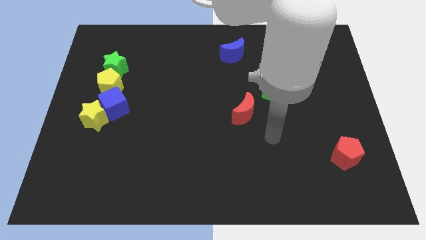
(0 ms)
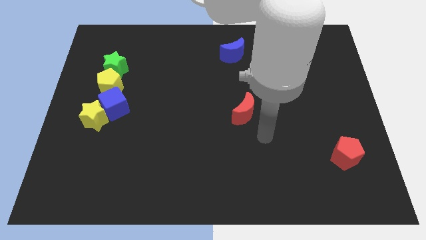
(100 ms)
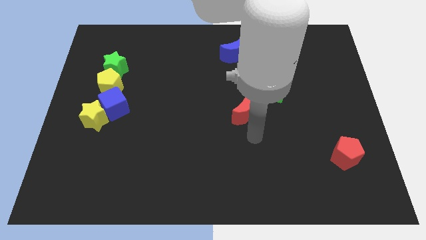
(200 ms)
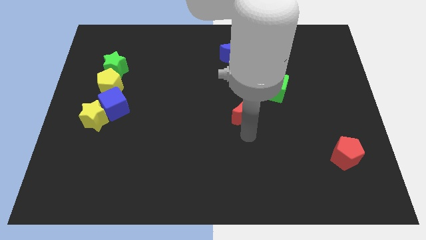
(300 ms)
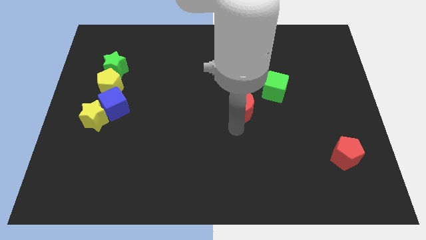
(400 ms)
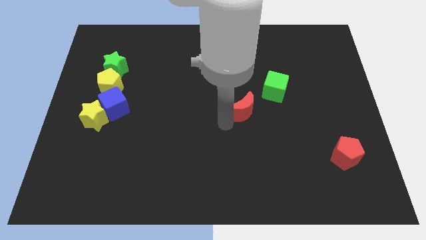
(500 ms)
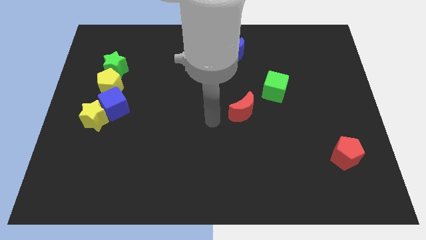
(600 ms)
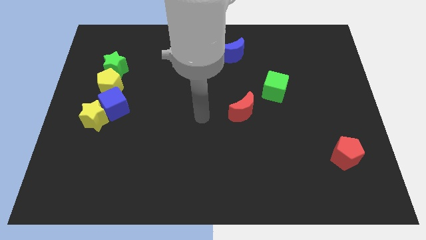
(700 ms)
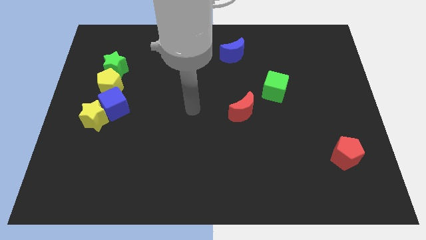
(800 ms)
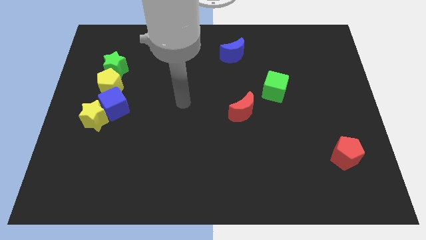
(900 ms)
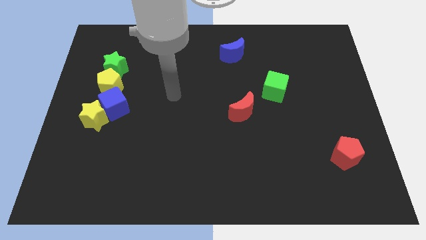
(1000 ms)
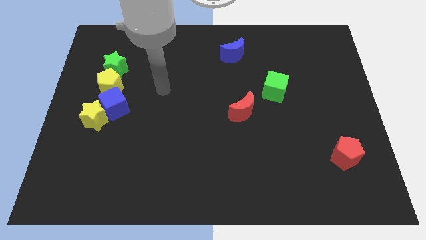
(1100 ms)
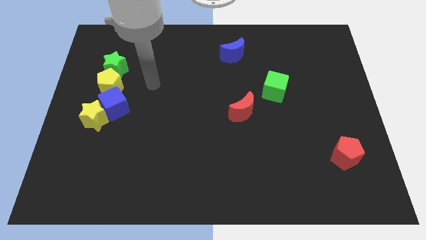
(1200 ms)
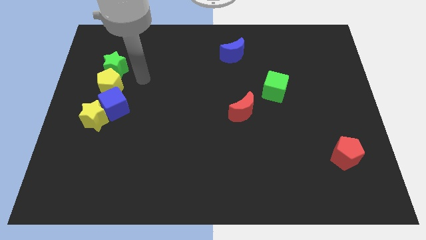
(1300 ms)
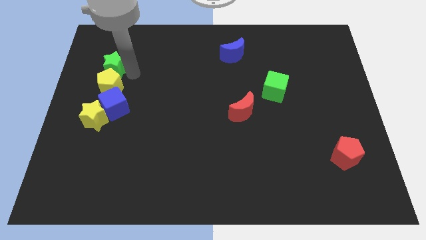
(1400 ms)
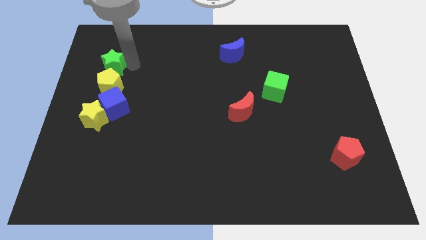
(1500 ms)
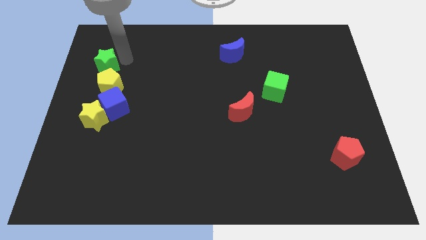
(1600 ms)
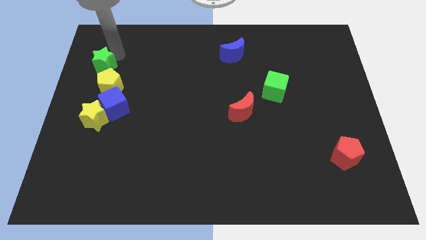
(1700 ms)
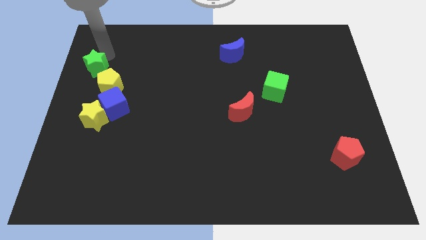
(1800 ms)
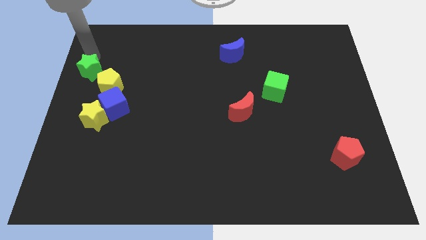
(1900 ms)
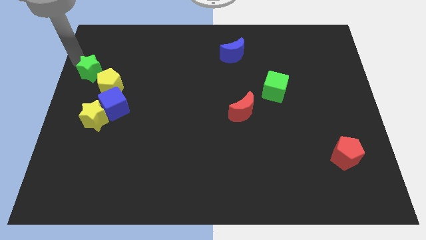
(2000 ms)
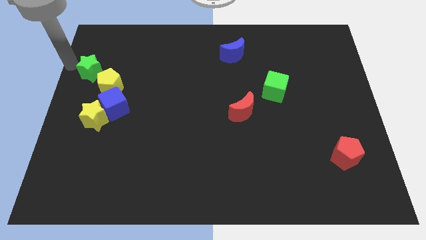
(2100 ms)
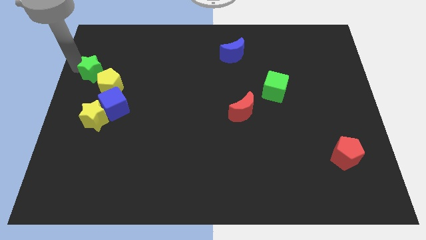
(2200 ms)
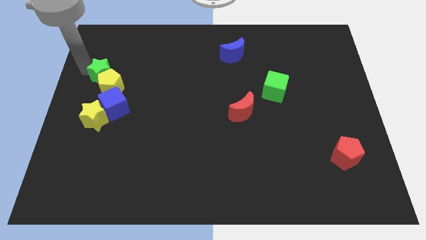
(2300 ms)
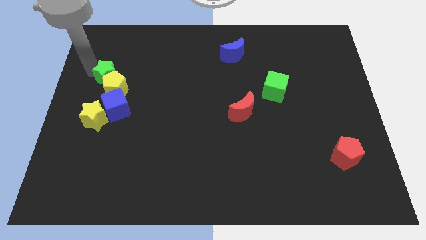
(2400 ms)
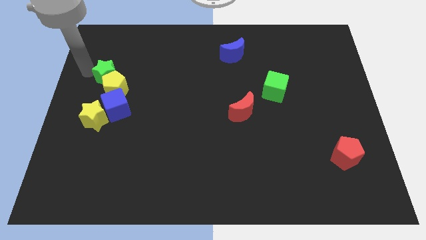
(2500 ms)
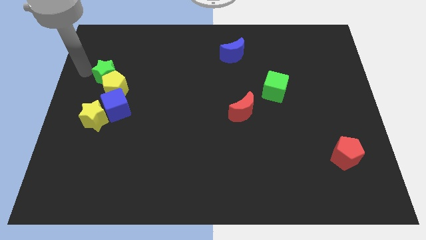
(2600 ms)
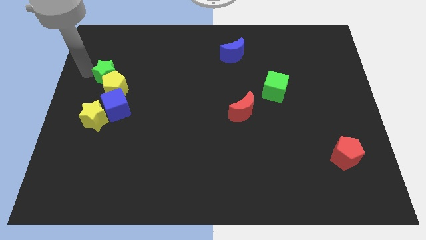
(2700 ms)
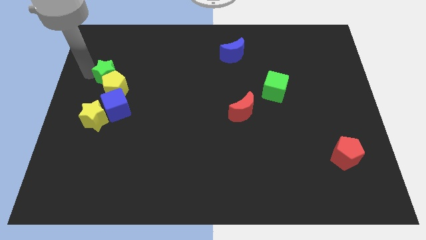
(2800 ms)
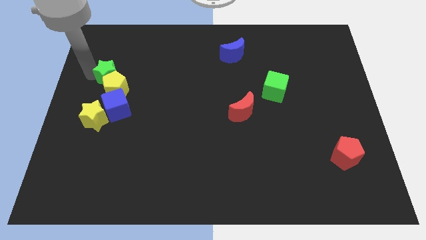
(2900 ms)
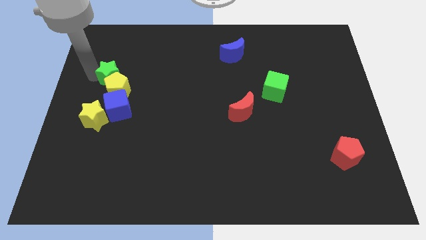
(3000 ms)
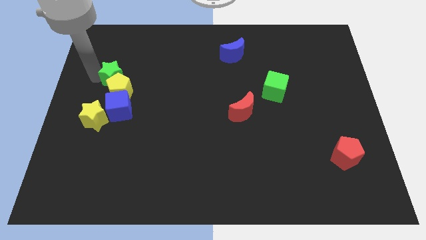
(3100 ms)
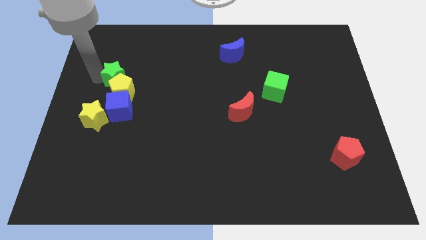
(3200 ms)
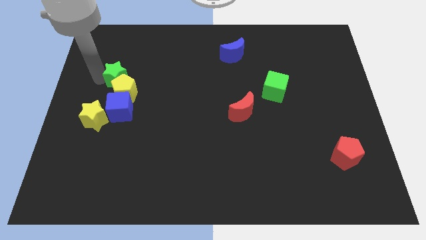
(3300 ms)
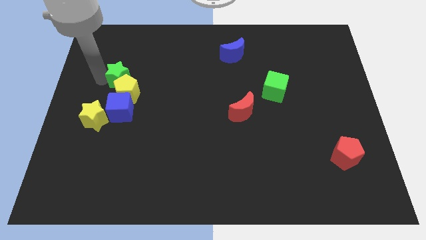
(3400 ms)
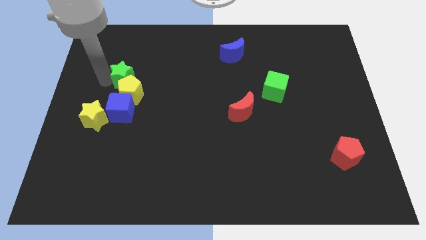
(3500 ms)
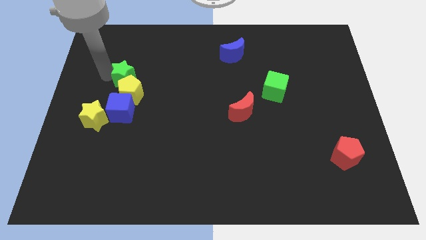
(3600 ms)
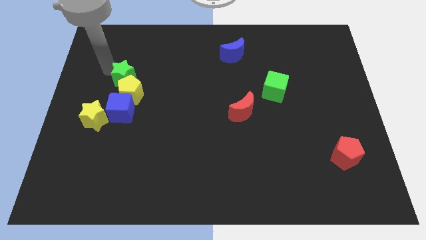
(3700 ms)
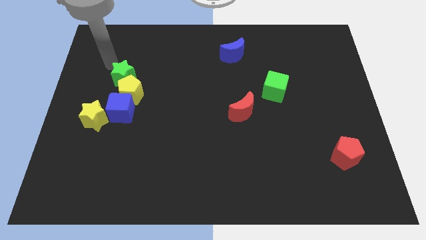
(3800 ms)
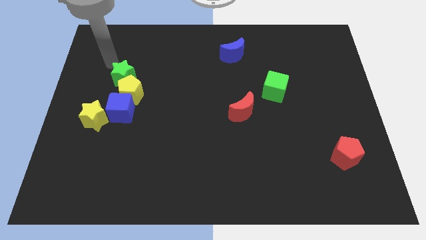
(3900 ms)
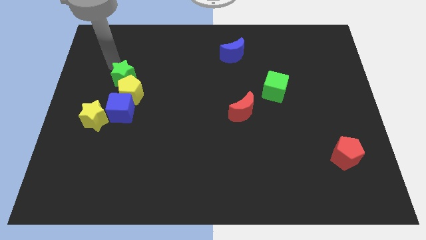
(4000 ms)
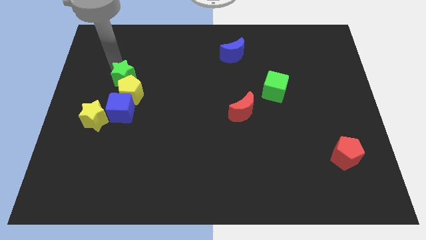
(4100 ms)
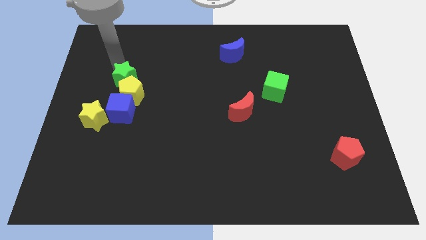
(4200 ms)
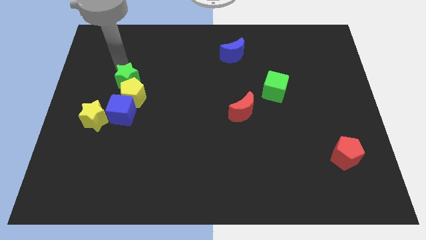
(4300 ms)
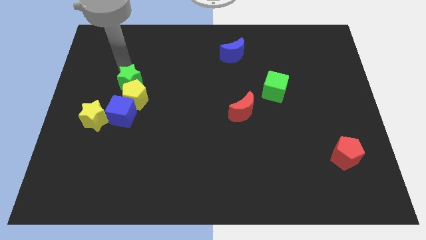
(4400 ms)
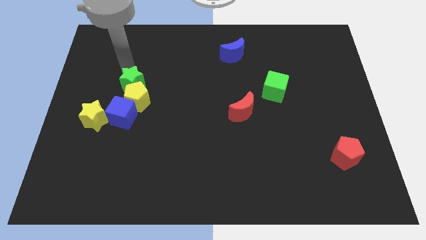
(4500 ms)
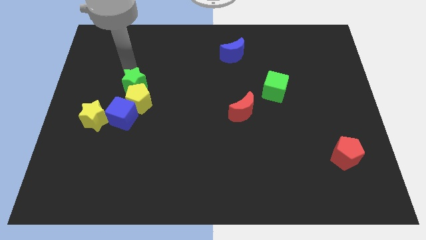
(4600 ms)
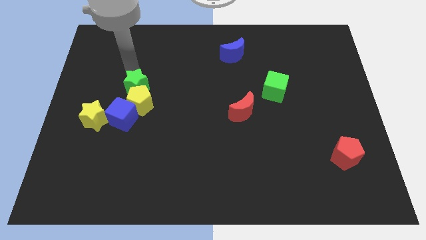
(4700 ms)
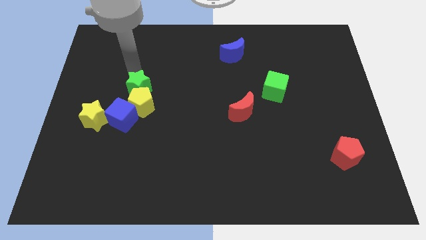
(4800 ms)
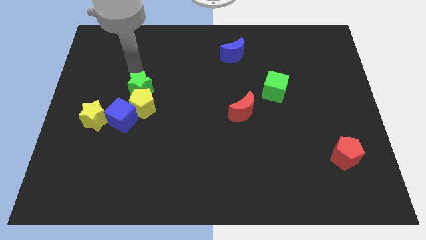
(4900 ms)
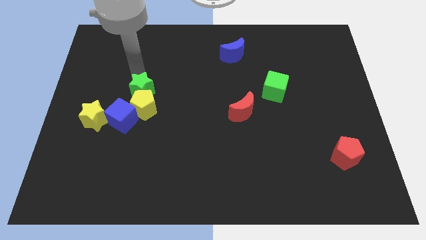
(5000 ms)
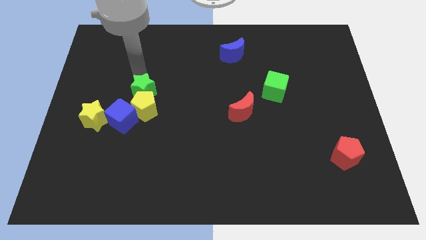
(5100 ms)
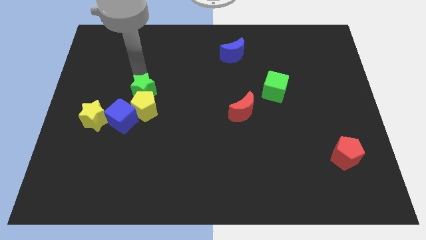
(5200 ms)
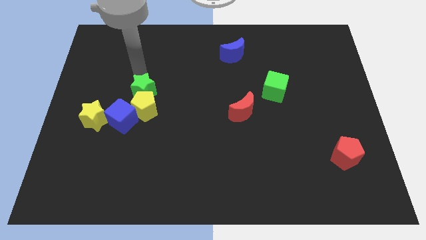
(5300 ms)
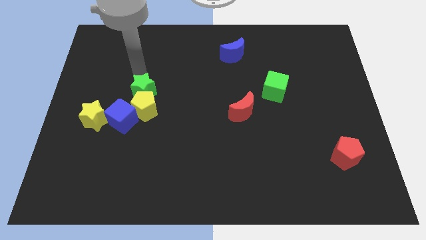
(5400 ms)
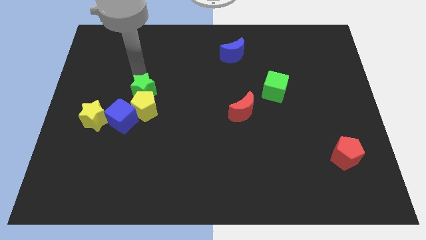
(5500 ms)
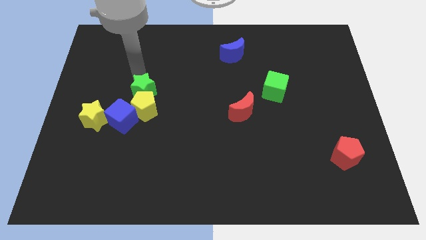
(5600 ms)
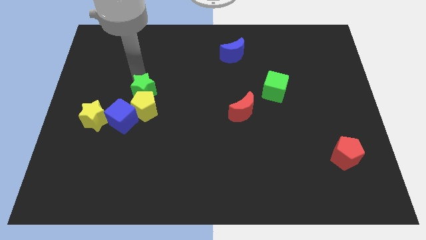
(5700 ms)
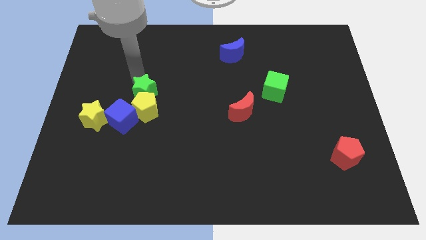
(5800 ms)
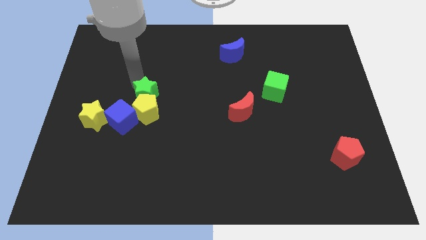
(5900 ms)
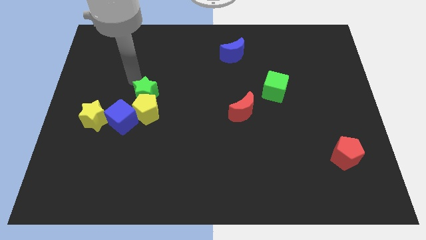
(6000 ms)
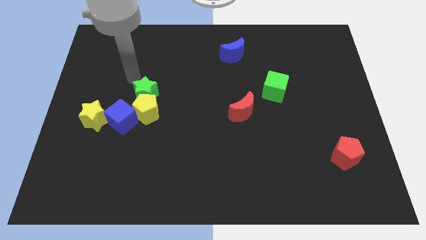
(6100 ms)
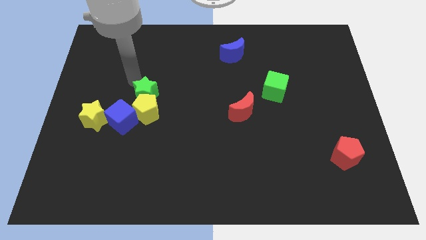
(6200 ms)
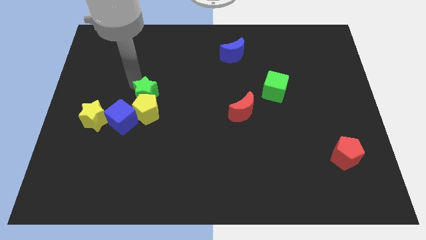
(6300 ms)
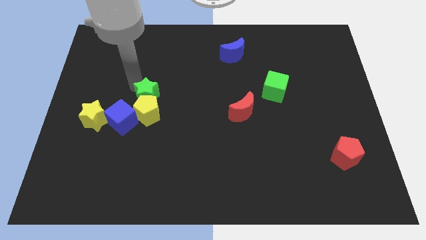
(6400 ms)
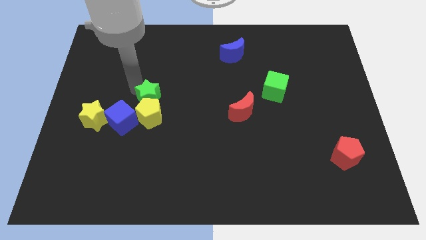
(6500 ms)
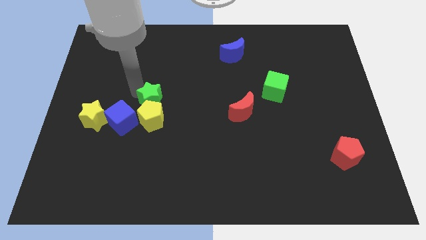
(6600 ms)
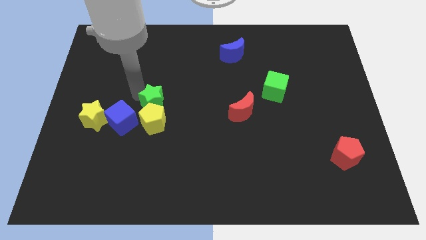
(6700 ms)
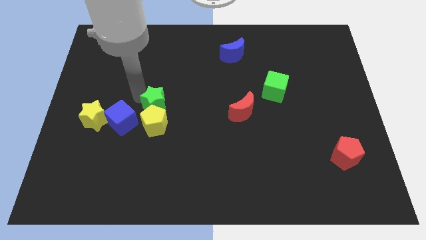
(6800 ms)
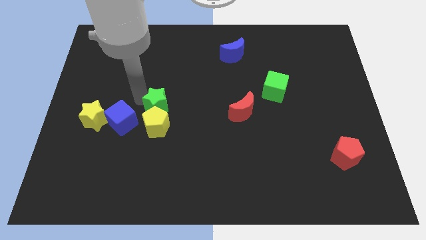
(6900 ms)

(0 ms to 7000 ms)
move the green star just right of the blue cube
